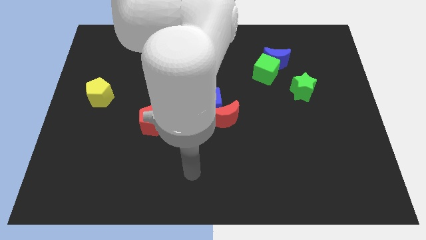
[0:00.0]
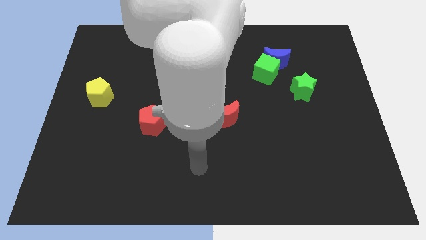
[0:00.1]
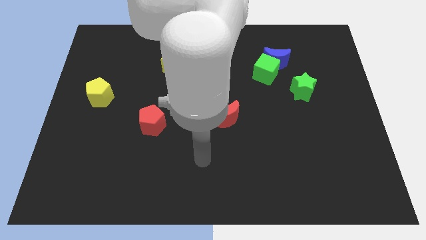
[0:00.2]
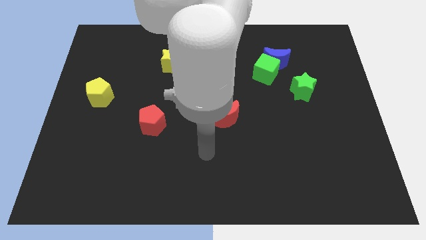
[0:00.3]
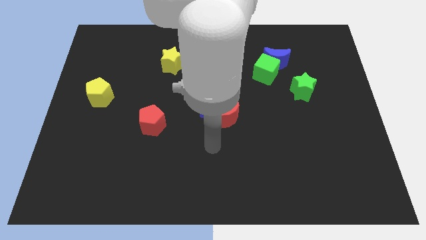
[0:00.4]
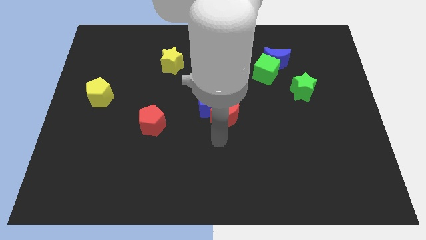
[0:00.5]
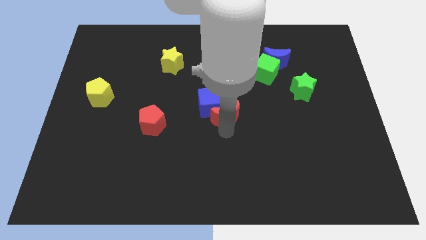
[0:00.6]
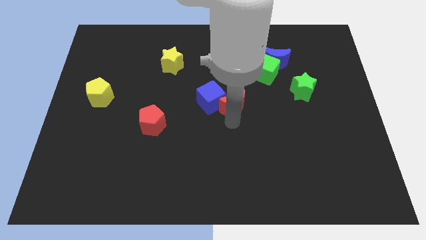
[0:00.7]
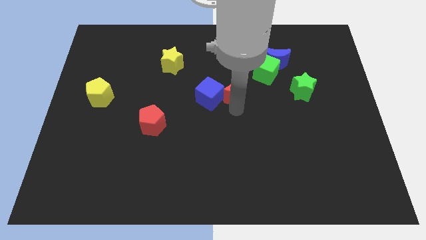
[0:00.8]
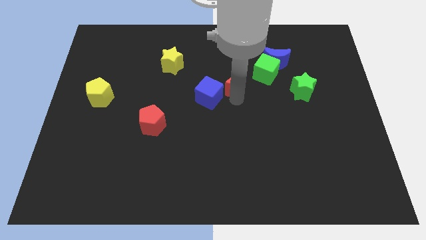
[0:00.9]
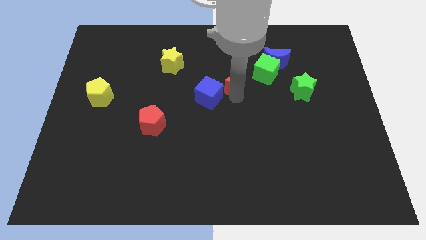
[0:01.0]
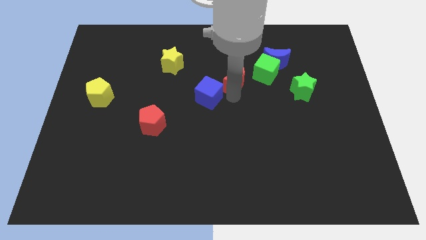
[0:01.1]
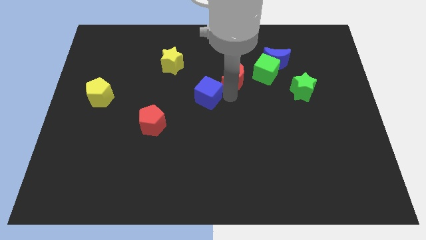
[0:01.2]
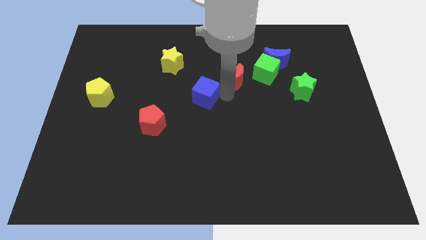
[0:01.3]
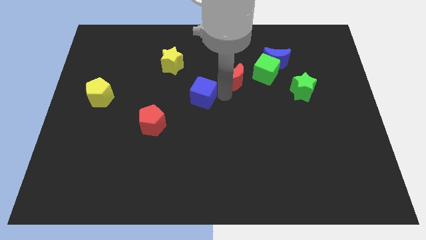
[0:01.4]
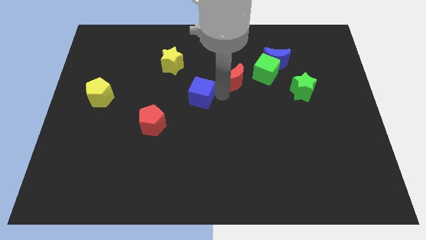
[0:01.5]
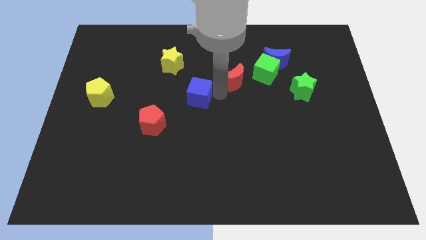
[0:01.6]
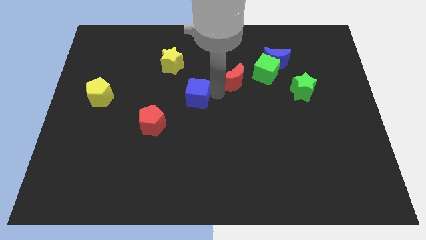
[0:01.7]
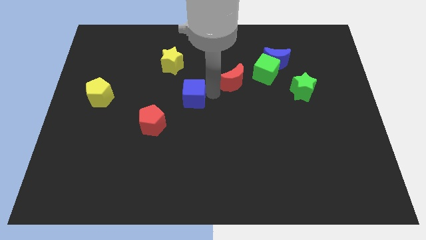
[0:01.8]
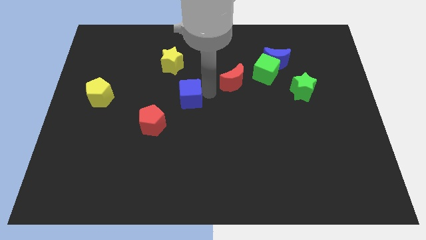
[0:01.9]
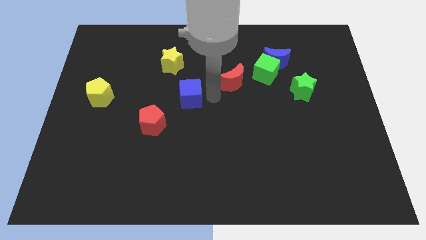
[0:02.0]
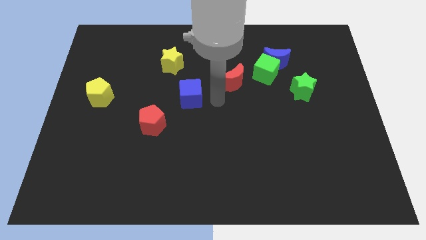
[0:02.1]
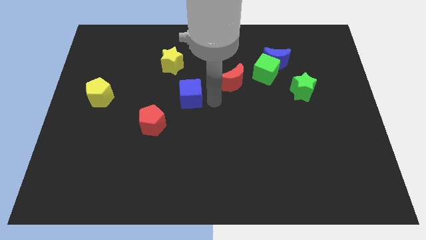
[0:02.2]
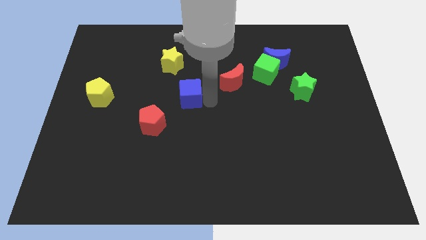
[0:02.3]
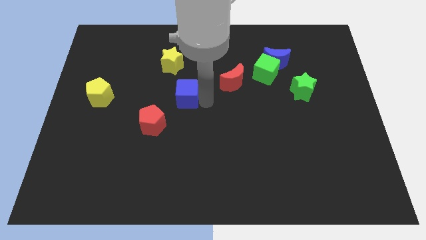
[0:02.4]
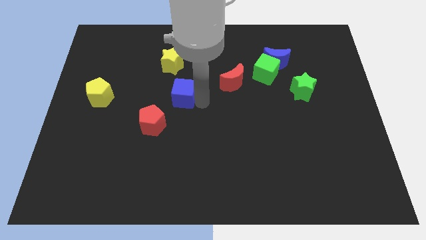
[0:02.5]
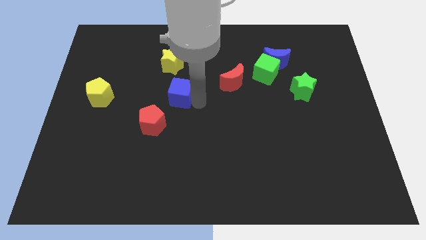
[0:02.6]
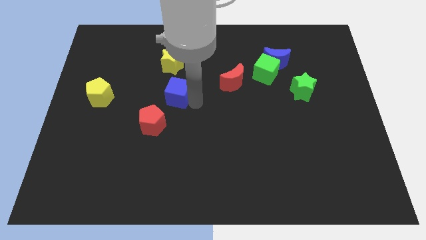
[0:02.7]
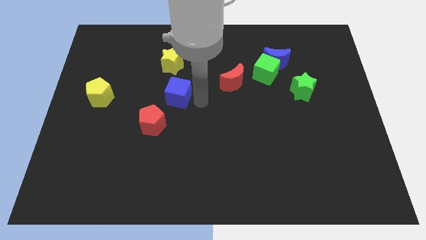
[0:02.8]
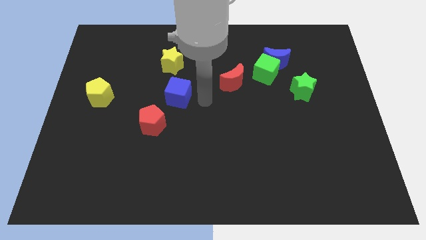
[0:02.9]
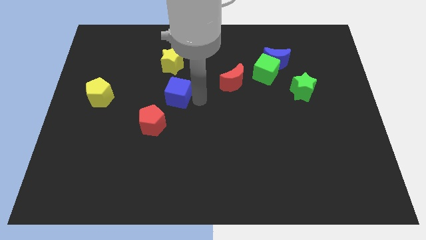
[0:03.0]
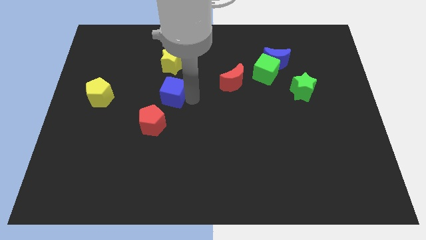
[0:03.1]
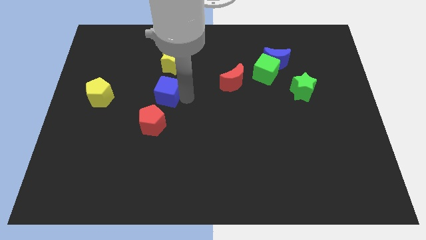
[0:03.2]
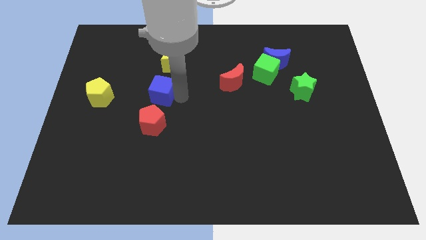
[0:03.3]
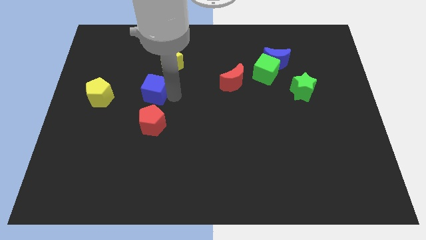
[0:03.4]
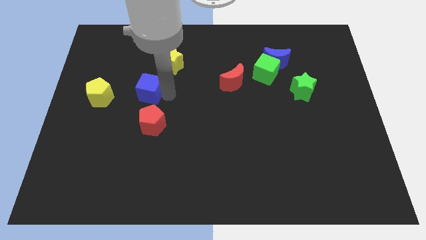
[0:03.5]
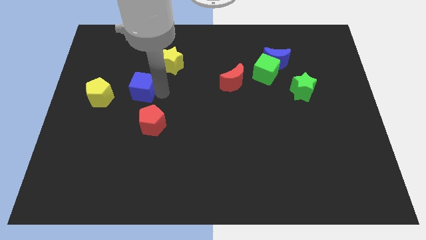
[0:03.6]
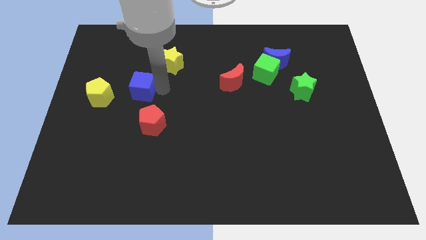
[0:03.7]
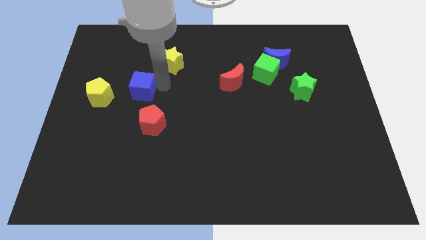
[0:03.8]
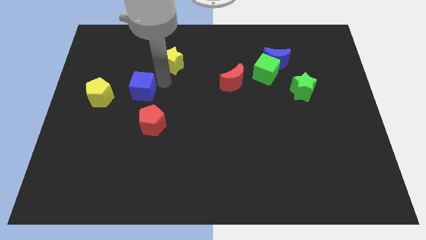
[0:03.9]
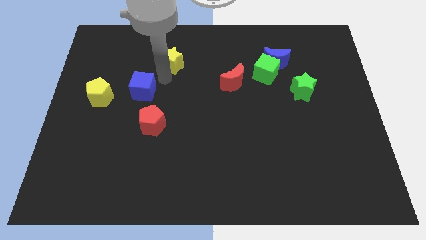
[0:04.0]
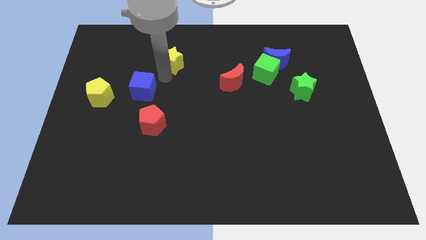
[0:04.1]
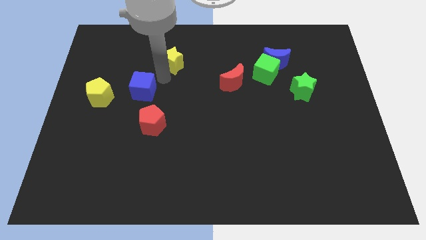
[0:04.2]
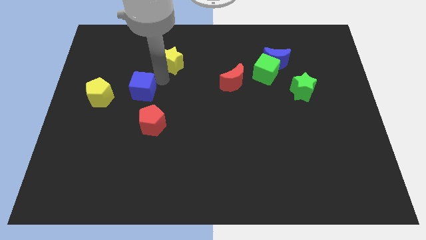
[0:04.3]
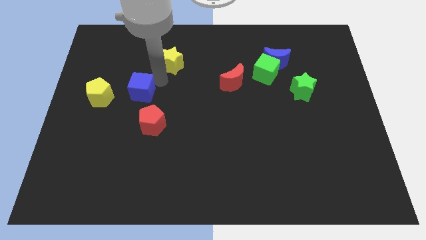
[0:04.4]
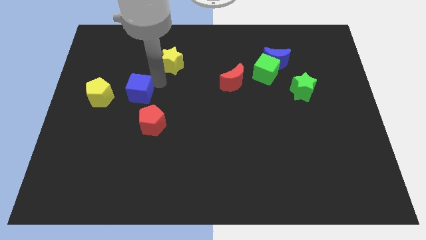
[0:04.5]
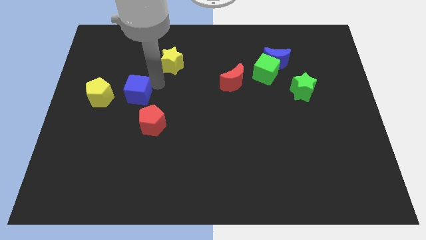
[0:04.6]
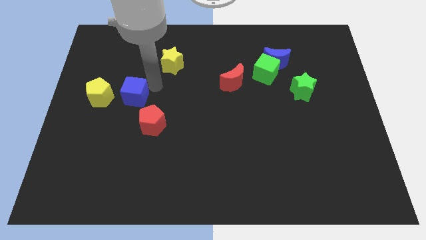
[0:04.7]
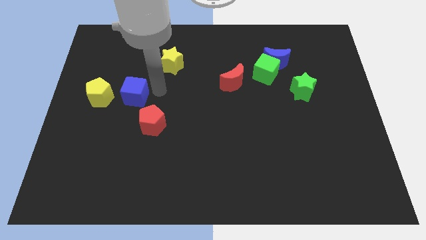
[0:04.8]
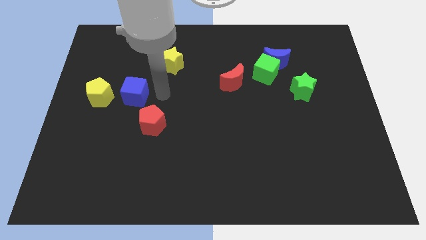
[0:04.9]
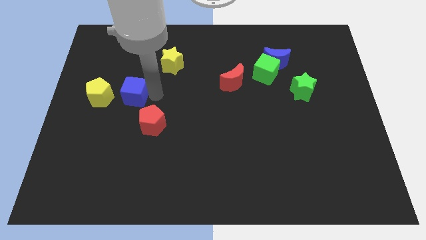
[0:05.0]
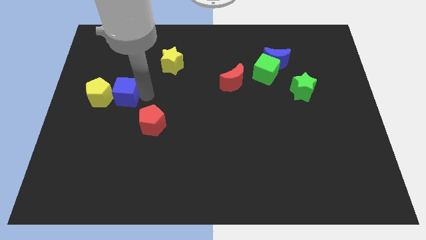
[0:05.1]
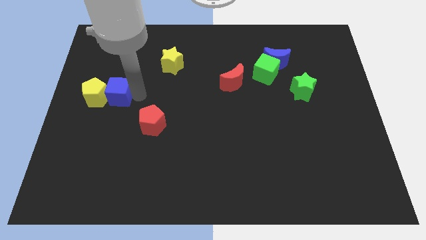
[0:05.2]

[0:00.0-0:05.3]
slide the blue cube towards the yellow pentagon

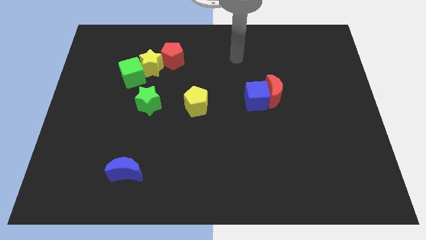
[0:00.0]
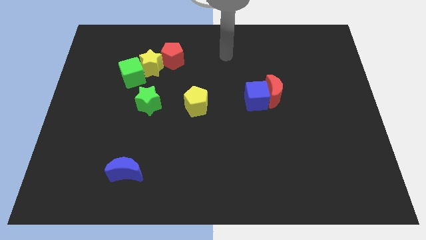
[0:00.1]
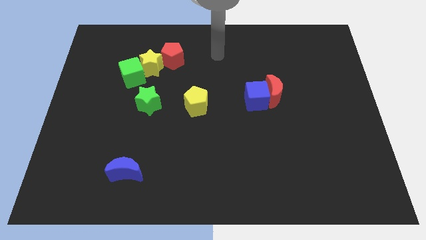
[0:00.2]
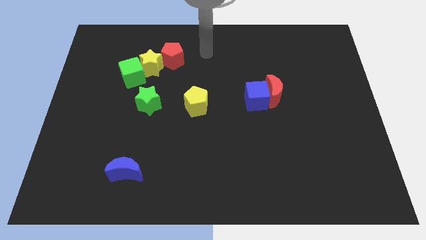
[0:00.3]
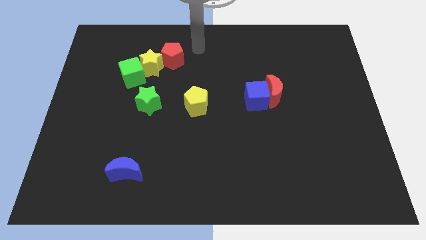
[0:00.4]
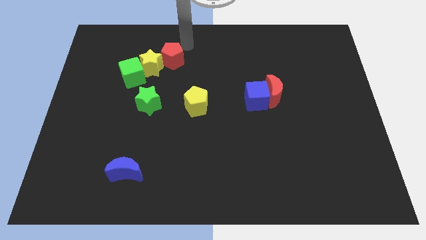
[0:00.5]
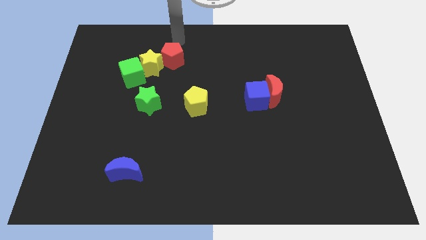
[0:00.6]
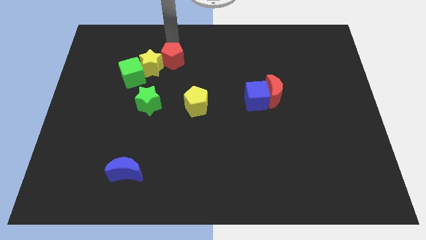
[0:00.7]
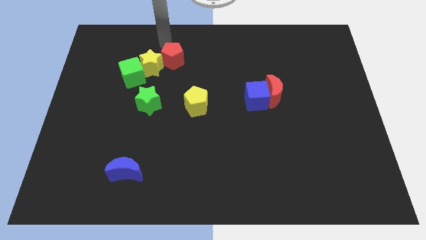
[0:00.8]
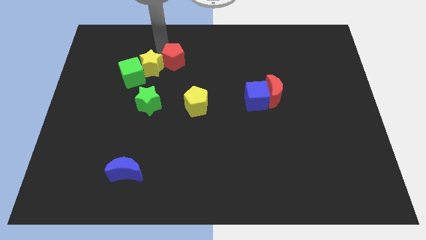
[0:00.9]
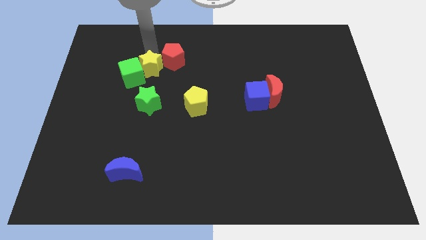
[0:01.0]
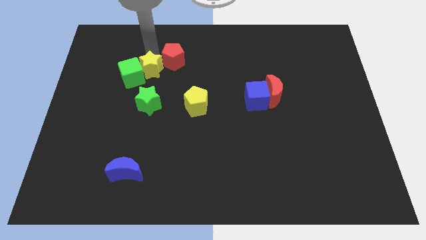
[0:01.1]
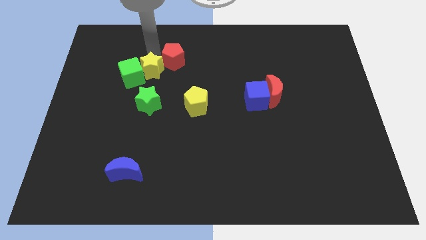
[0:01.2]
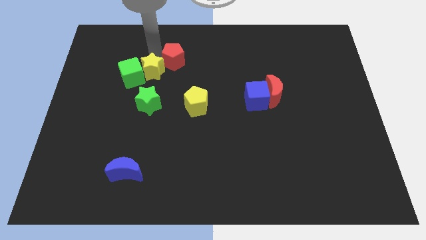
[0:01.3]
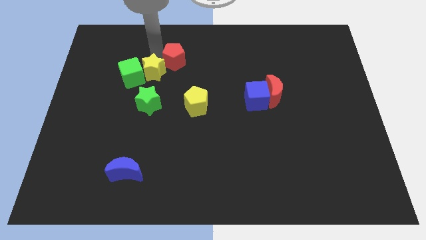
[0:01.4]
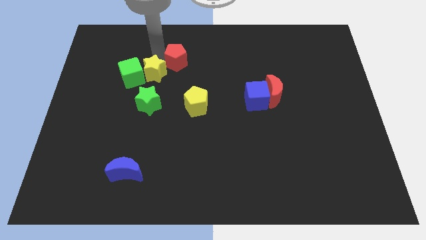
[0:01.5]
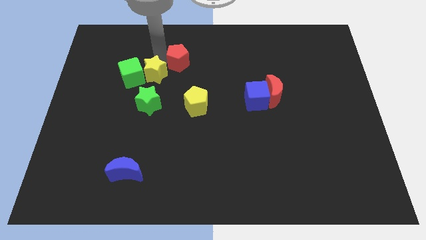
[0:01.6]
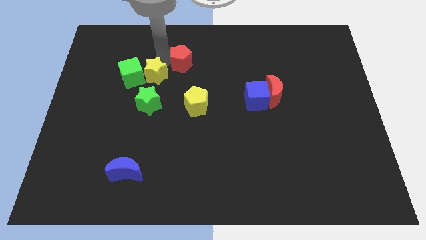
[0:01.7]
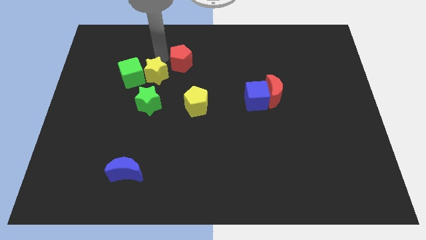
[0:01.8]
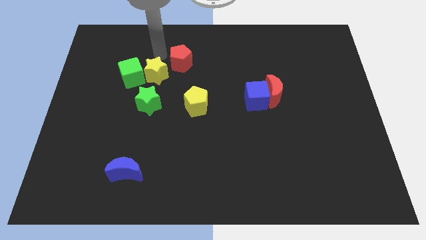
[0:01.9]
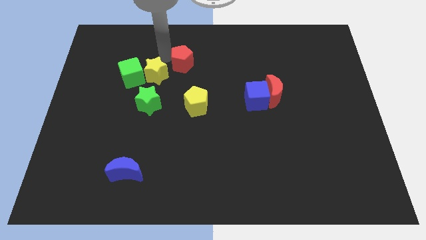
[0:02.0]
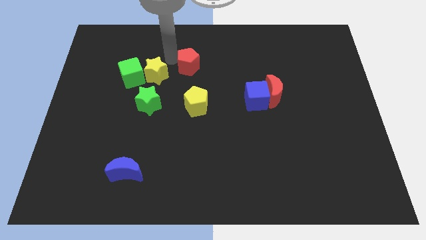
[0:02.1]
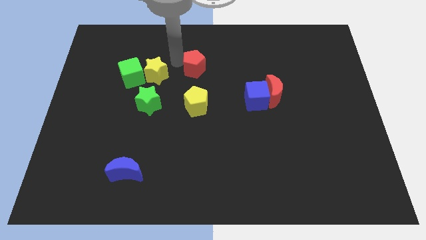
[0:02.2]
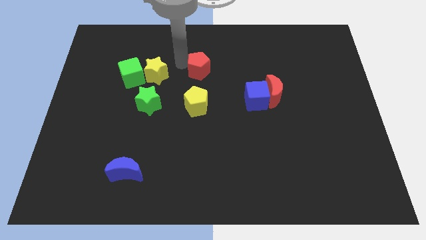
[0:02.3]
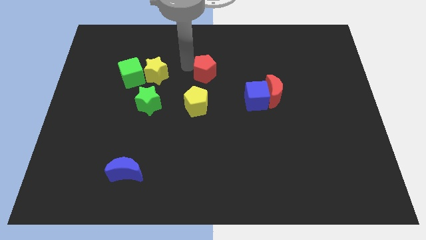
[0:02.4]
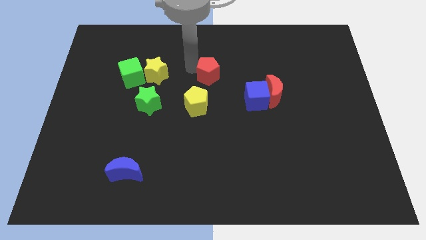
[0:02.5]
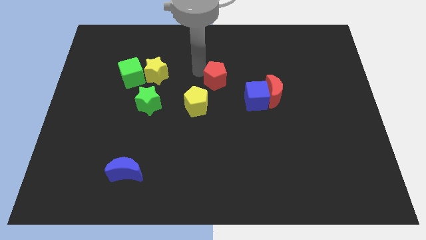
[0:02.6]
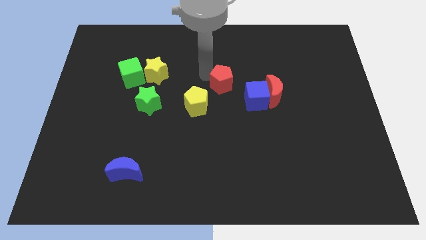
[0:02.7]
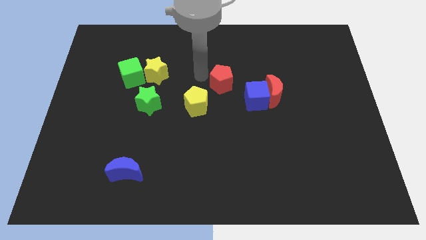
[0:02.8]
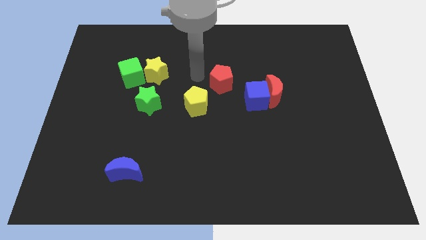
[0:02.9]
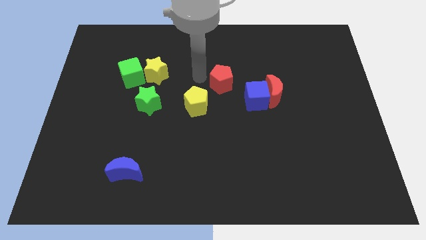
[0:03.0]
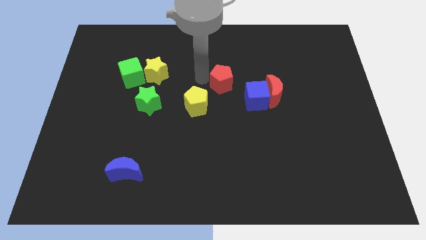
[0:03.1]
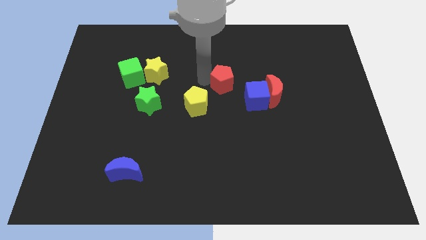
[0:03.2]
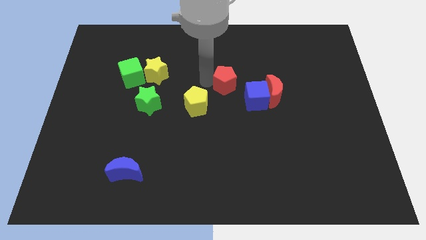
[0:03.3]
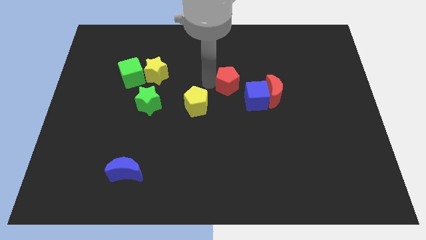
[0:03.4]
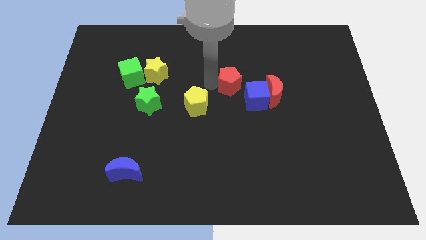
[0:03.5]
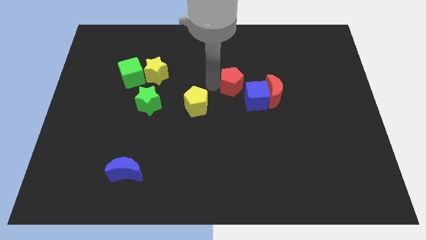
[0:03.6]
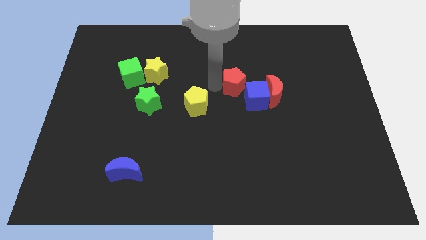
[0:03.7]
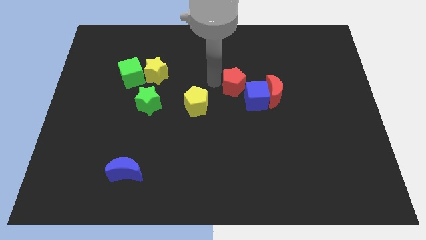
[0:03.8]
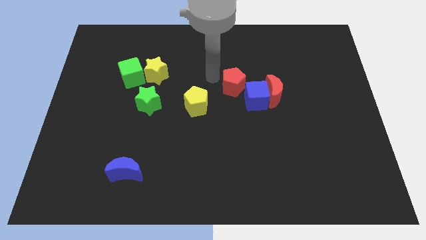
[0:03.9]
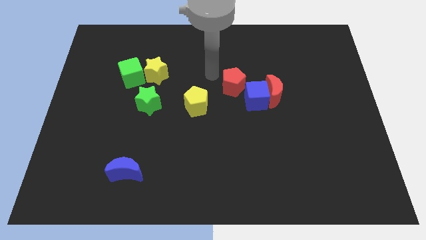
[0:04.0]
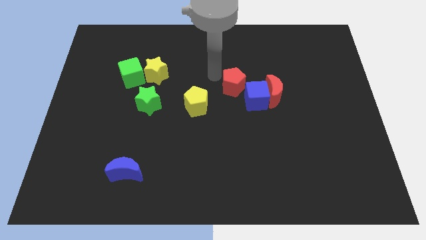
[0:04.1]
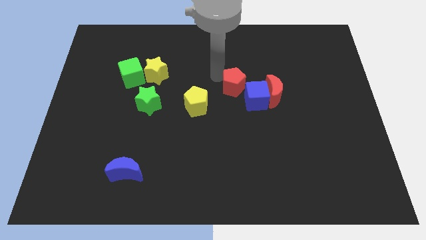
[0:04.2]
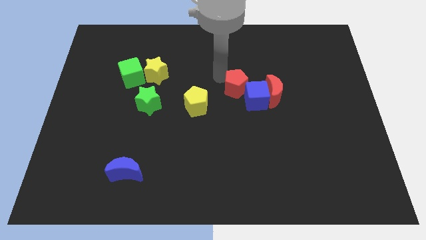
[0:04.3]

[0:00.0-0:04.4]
slide the red pentagon close to the blue cube
